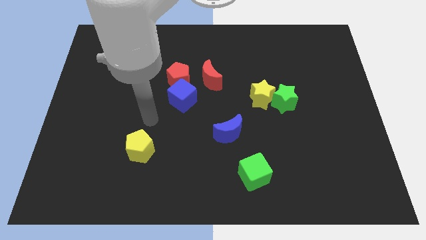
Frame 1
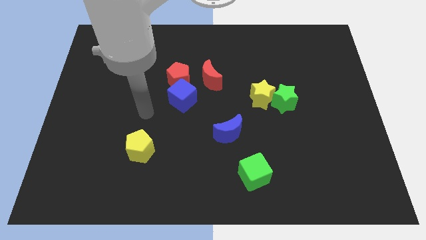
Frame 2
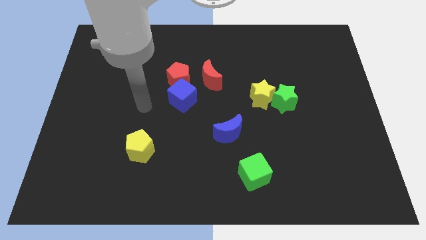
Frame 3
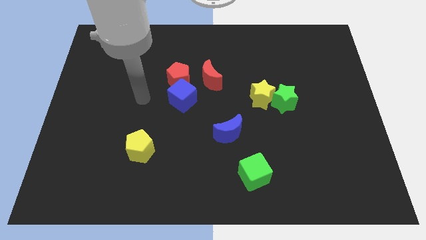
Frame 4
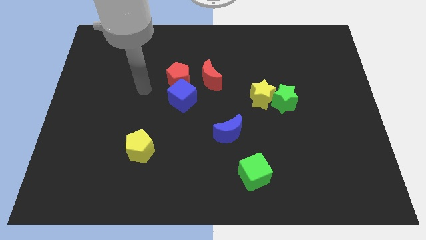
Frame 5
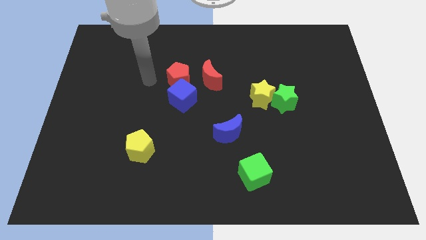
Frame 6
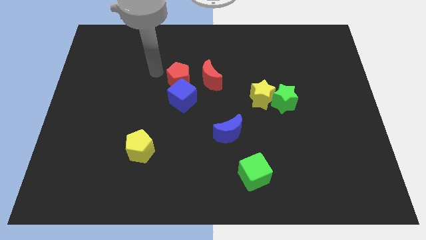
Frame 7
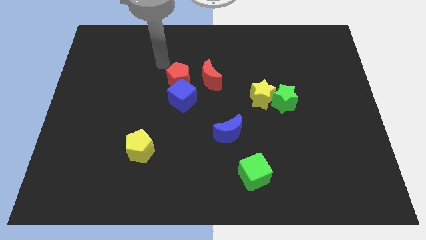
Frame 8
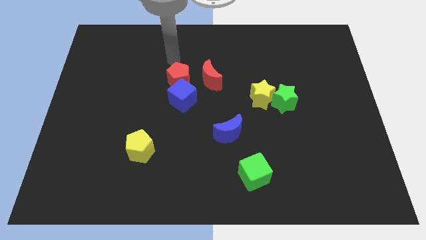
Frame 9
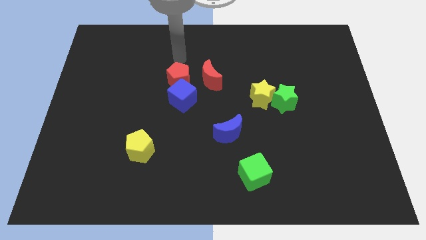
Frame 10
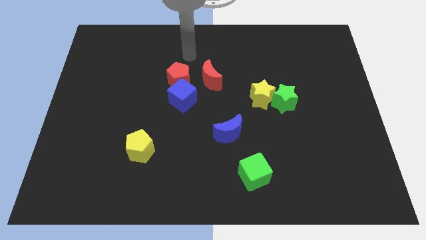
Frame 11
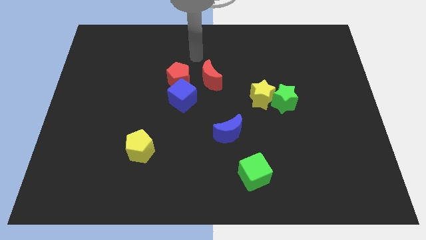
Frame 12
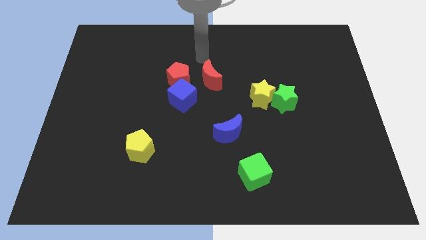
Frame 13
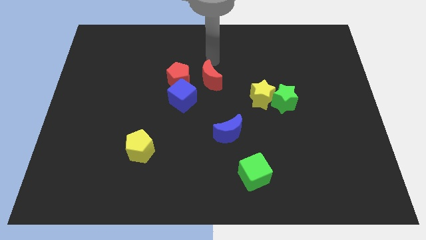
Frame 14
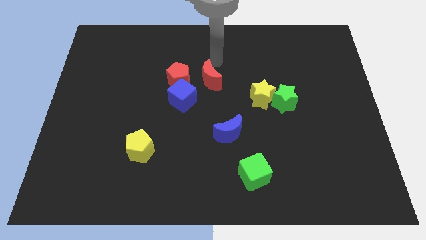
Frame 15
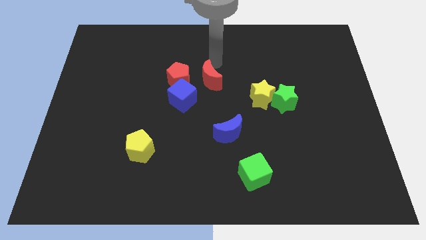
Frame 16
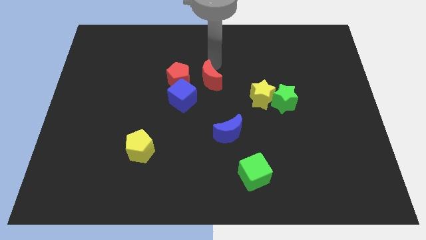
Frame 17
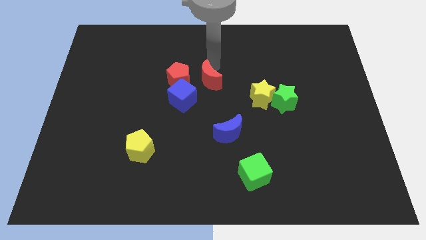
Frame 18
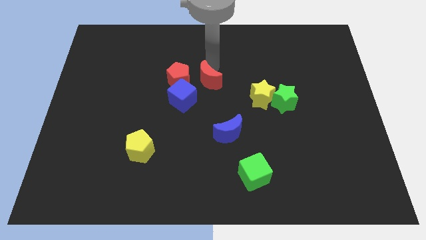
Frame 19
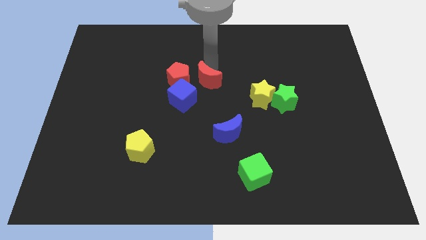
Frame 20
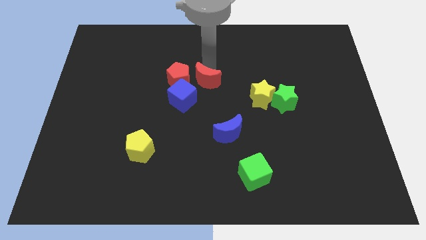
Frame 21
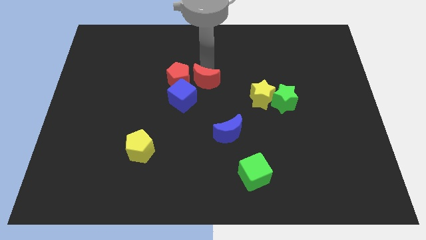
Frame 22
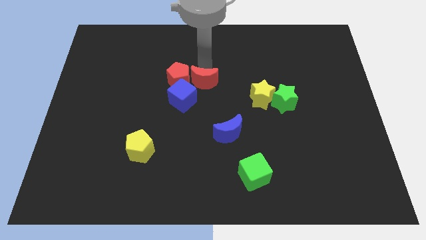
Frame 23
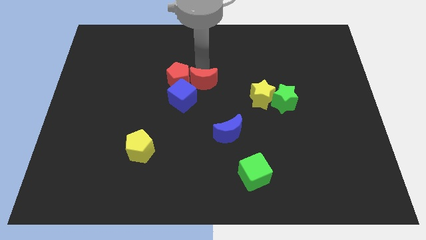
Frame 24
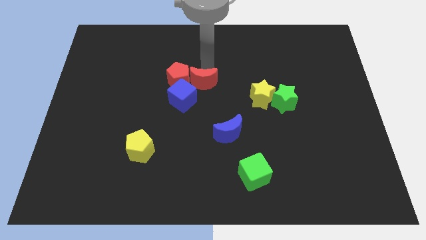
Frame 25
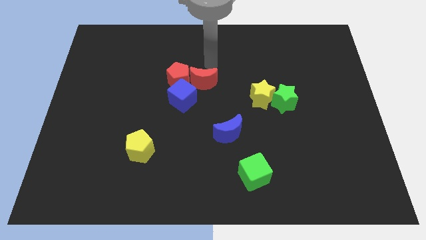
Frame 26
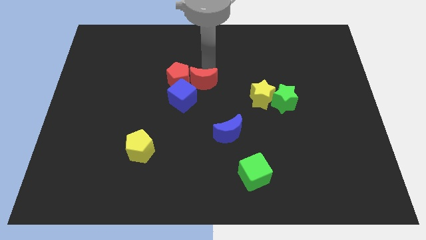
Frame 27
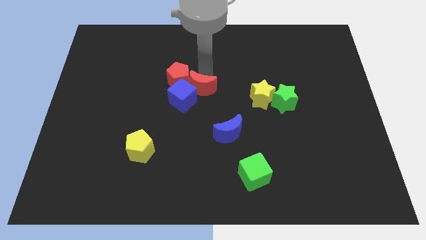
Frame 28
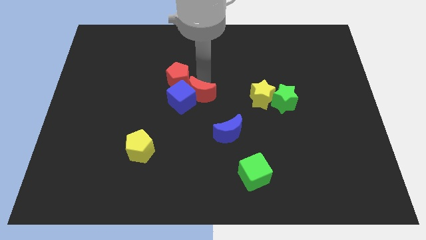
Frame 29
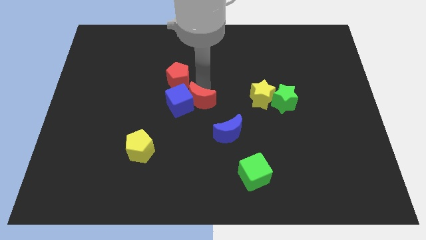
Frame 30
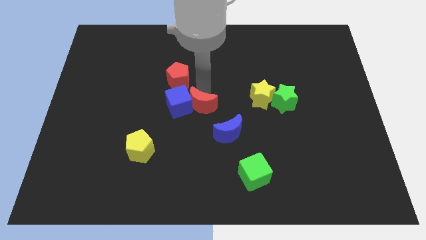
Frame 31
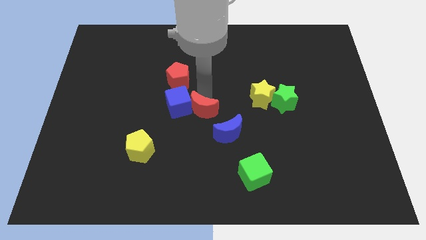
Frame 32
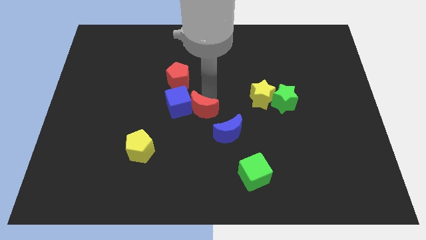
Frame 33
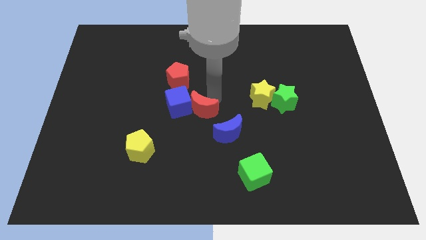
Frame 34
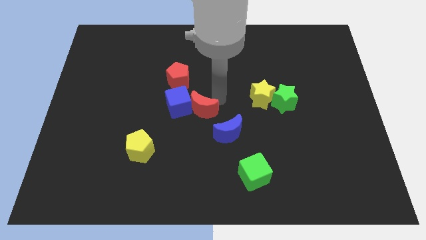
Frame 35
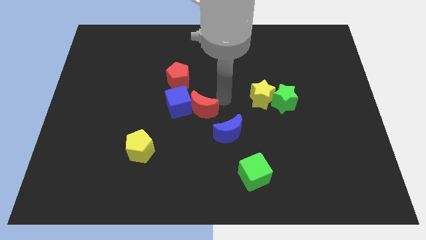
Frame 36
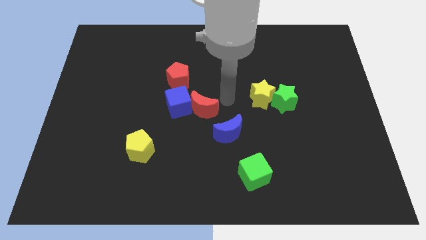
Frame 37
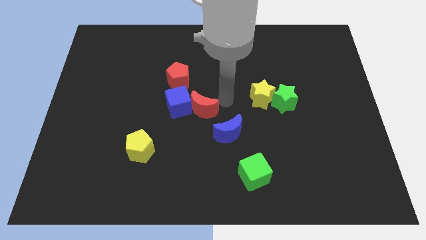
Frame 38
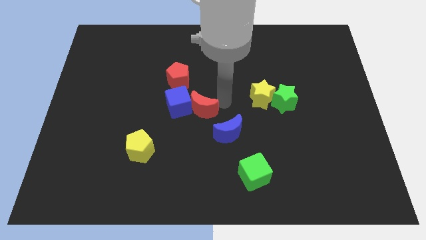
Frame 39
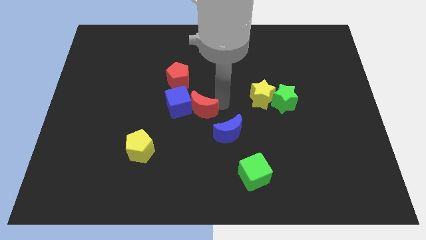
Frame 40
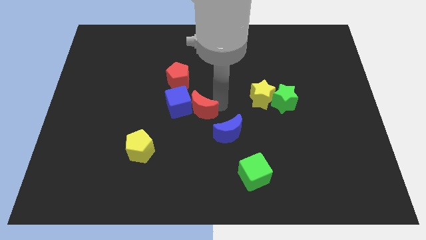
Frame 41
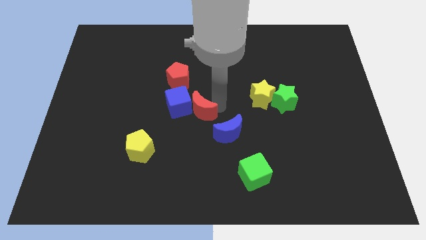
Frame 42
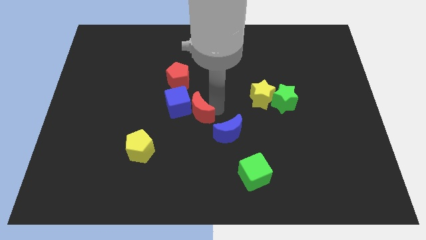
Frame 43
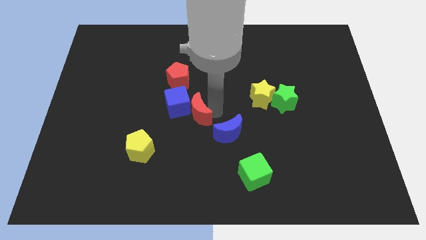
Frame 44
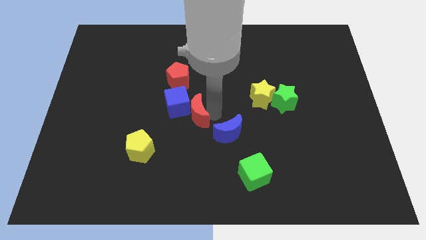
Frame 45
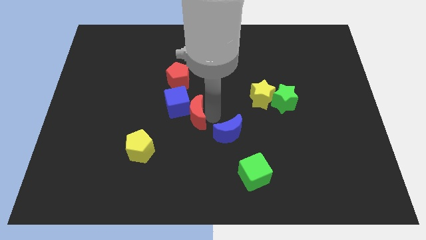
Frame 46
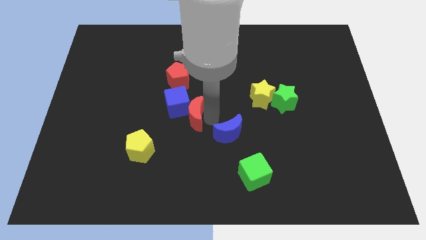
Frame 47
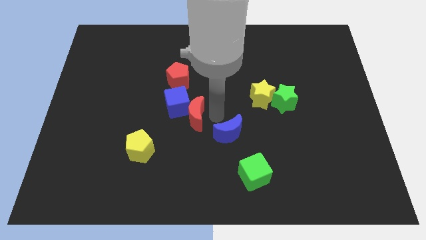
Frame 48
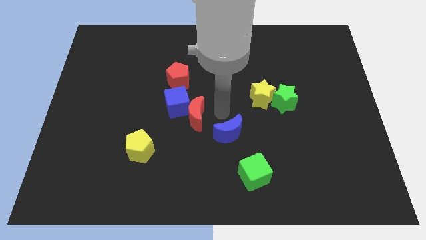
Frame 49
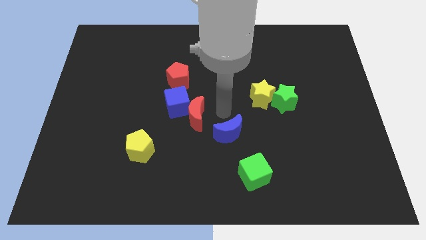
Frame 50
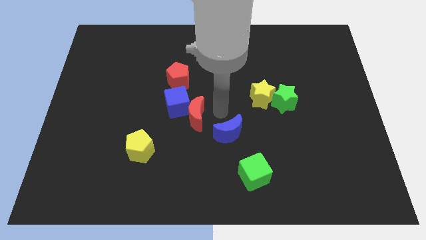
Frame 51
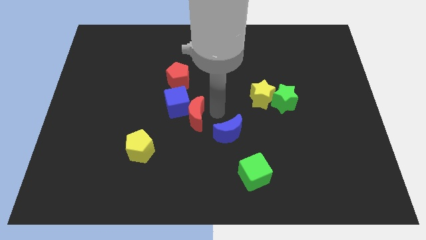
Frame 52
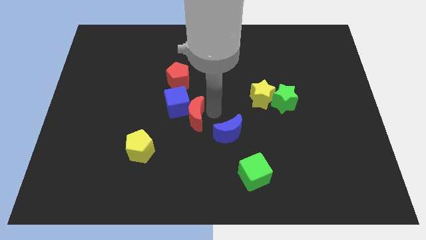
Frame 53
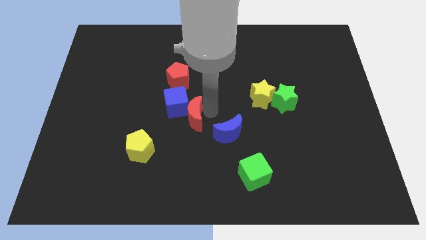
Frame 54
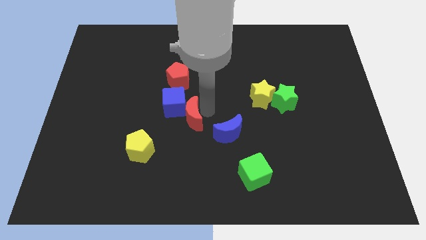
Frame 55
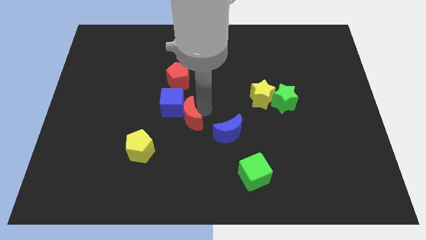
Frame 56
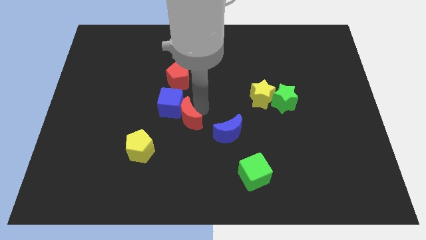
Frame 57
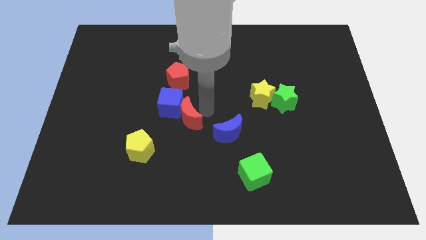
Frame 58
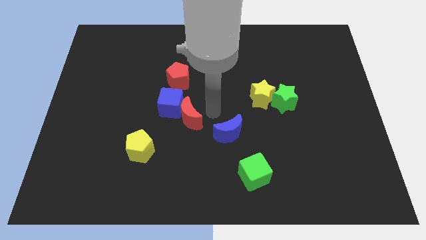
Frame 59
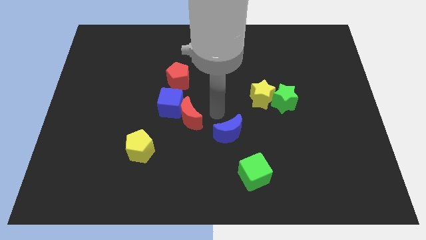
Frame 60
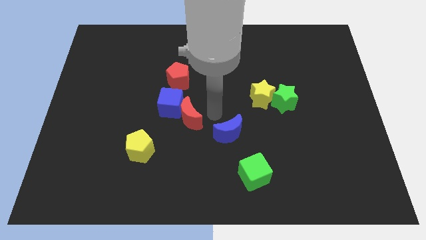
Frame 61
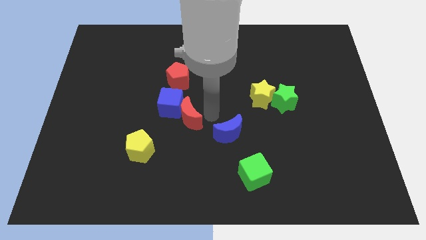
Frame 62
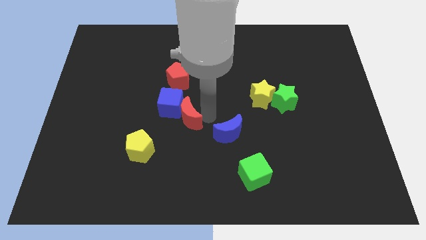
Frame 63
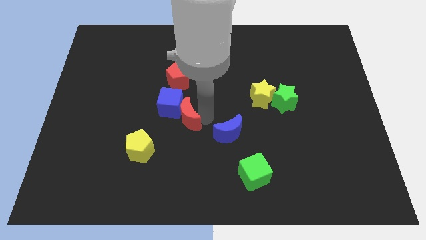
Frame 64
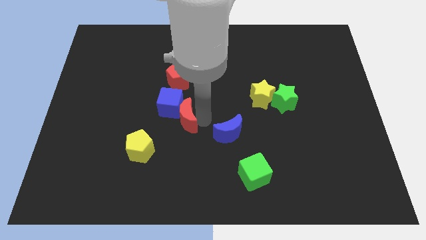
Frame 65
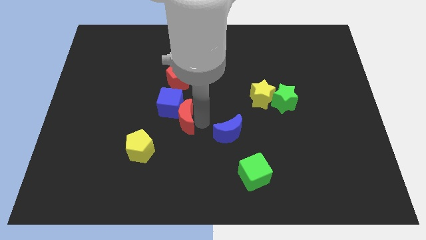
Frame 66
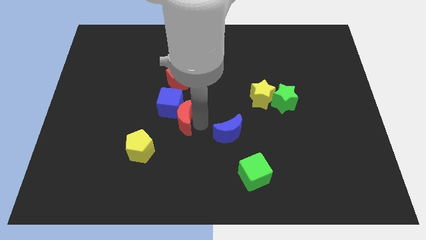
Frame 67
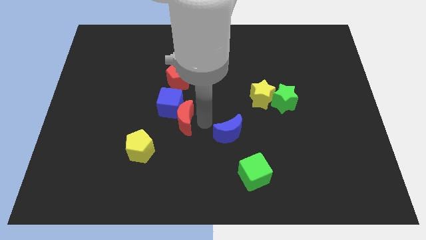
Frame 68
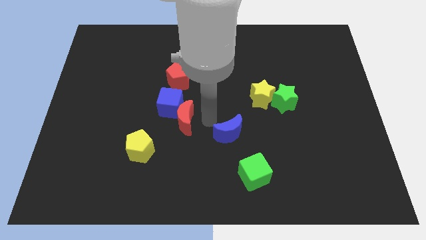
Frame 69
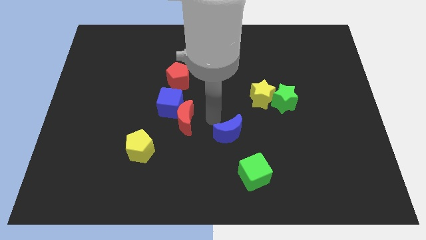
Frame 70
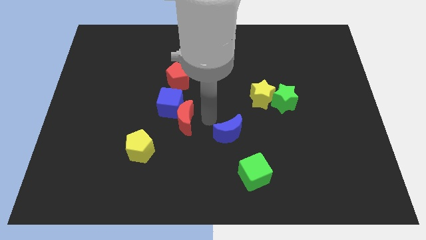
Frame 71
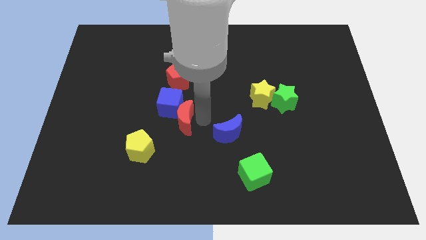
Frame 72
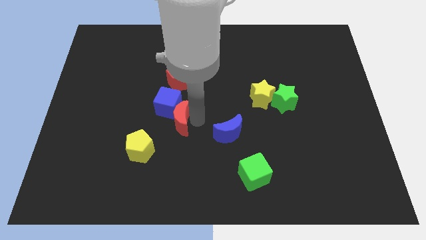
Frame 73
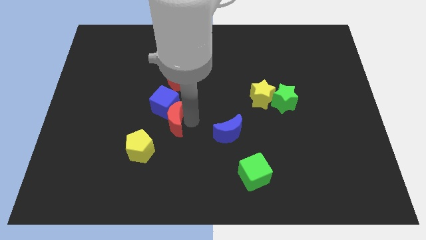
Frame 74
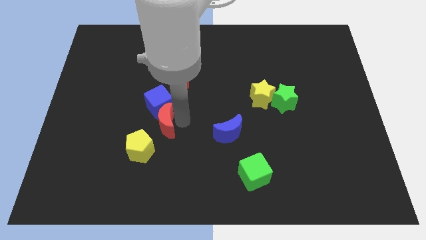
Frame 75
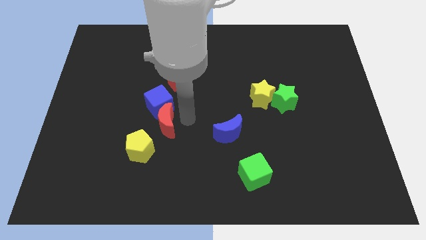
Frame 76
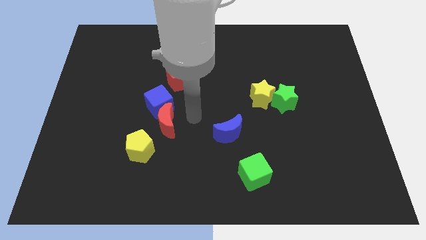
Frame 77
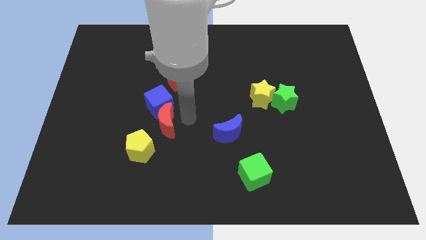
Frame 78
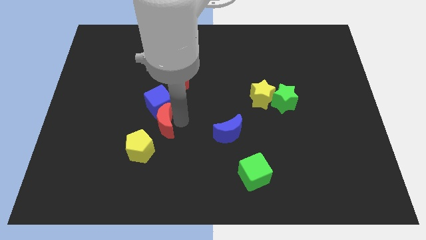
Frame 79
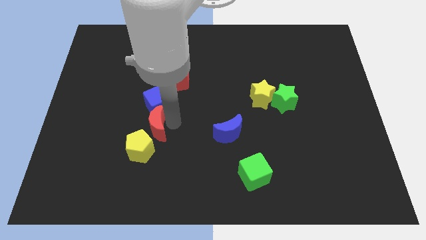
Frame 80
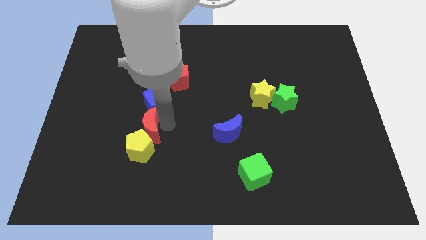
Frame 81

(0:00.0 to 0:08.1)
move the red moon diagonally down and left

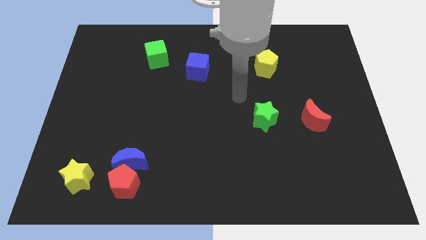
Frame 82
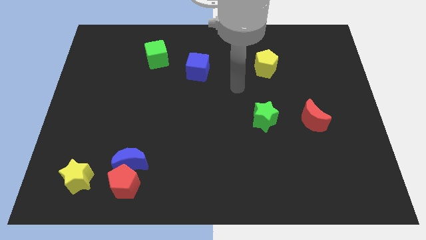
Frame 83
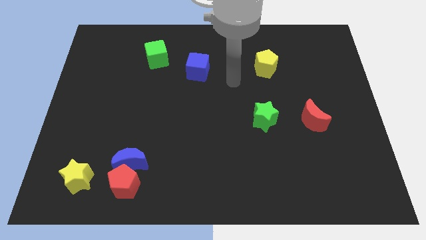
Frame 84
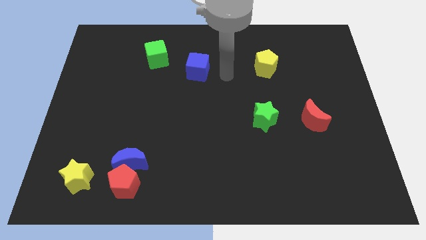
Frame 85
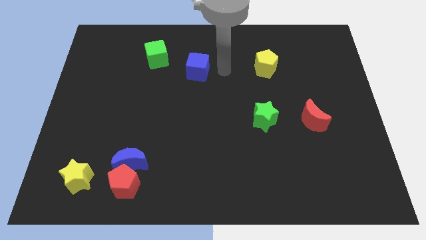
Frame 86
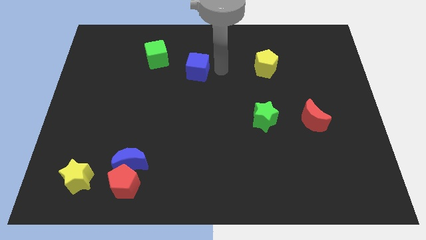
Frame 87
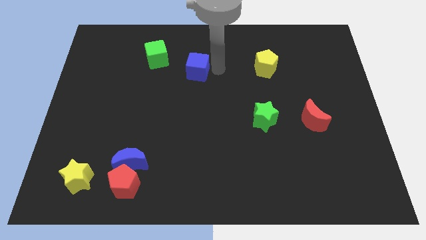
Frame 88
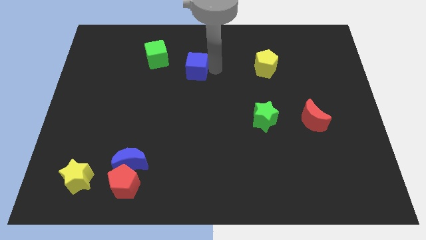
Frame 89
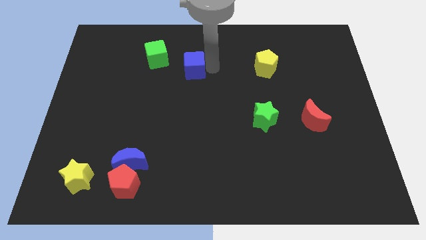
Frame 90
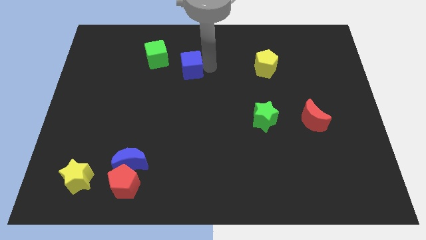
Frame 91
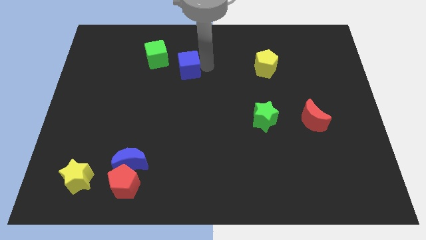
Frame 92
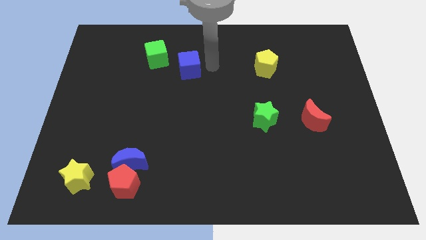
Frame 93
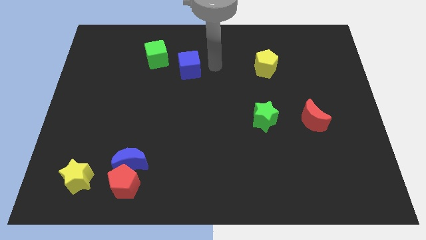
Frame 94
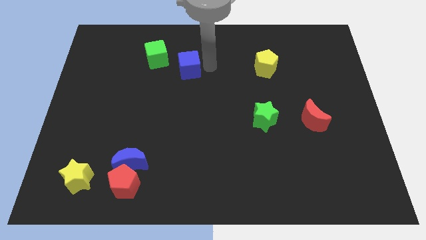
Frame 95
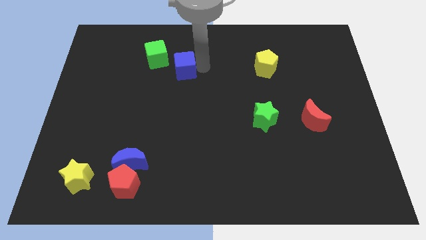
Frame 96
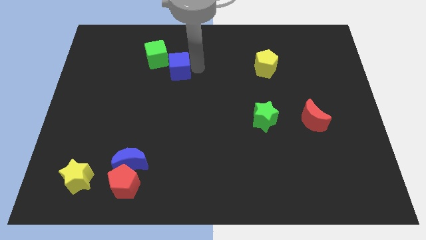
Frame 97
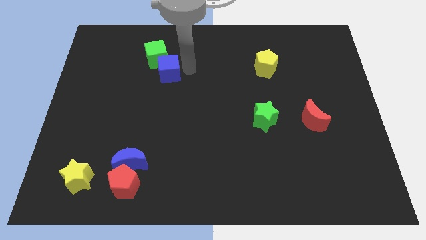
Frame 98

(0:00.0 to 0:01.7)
push the blue cube left slightly
